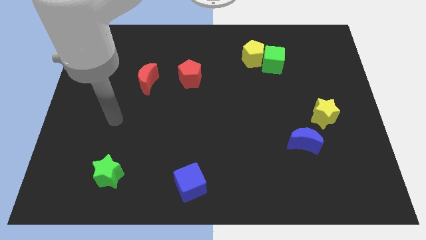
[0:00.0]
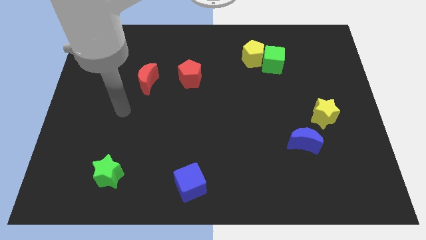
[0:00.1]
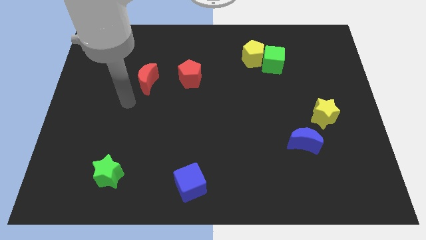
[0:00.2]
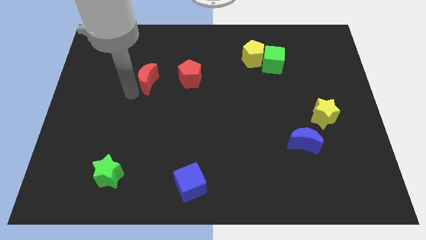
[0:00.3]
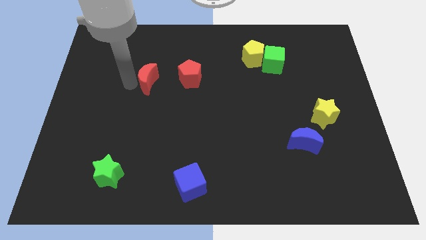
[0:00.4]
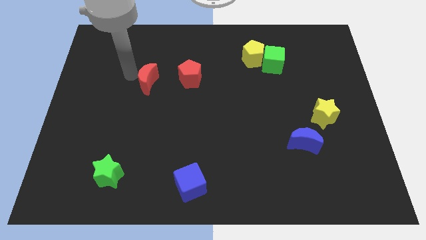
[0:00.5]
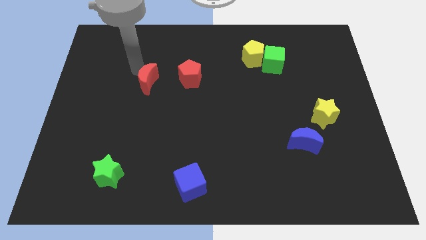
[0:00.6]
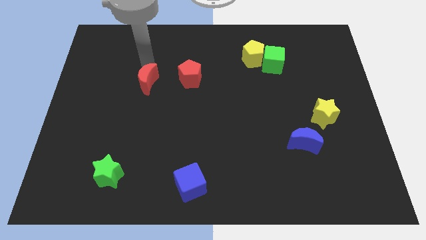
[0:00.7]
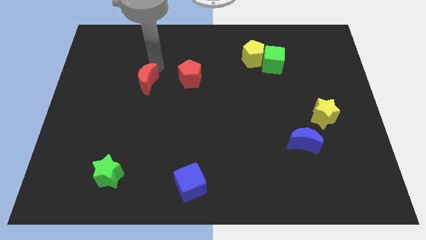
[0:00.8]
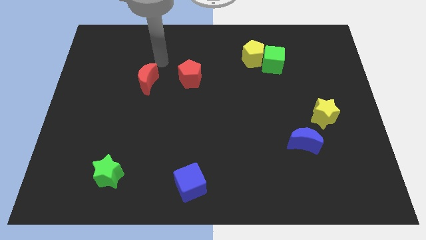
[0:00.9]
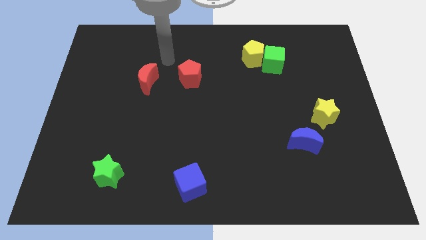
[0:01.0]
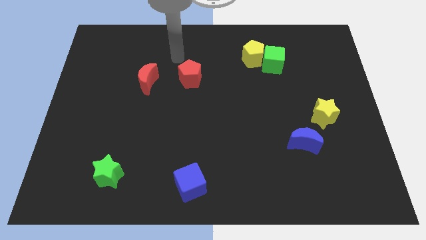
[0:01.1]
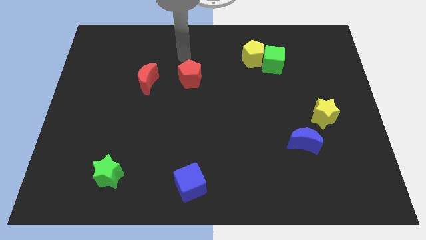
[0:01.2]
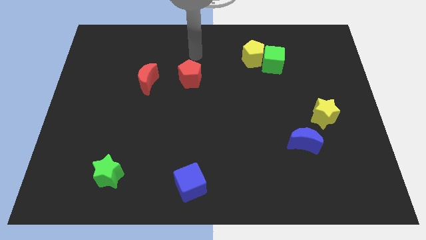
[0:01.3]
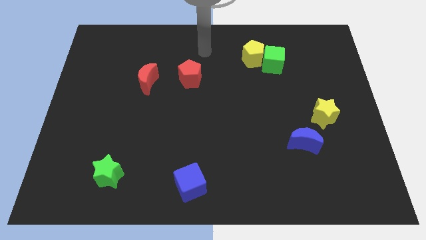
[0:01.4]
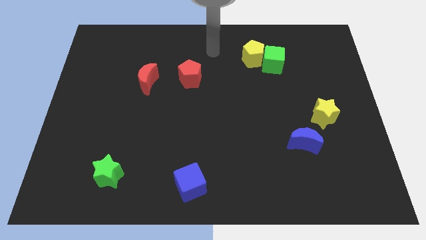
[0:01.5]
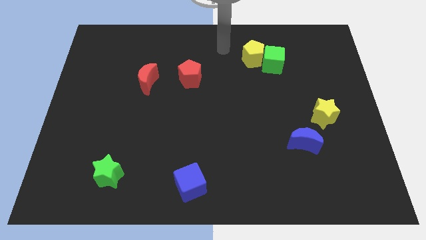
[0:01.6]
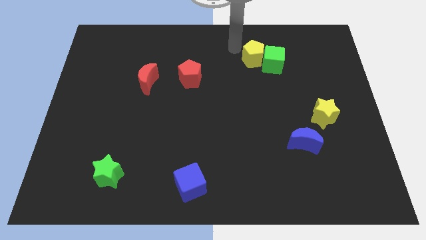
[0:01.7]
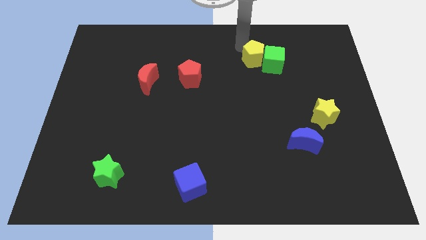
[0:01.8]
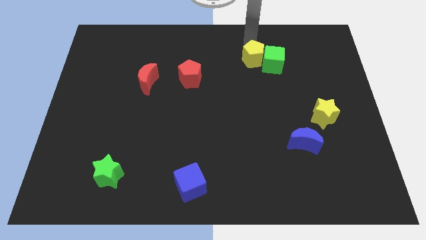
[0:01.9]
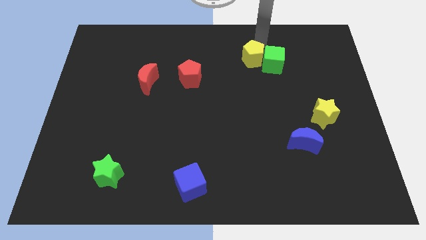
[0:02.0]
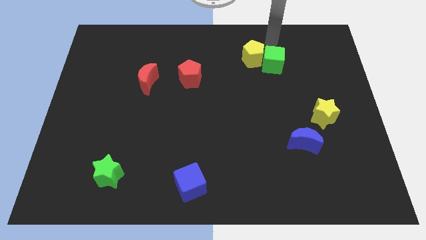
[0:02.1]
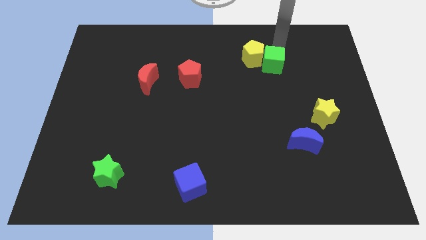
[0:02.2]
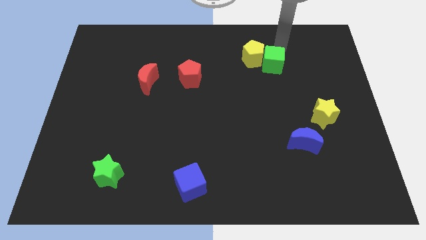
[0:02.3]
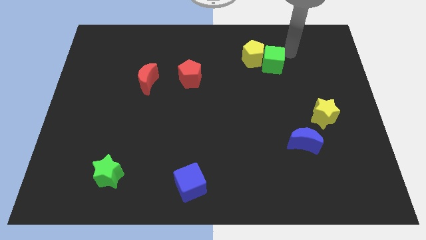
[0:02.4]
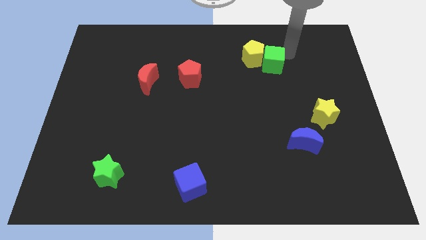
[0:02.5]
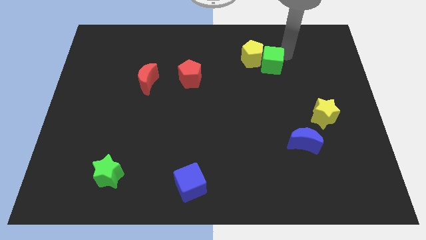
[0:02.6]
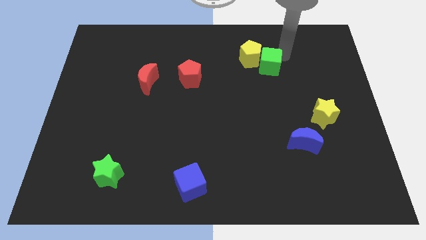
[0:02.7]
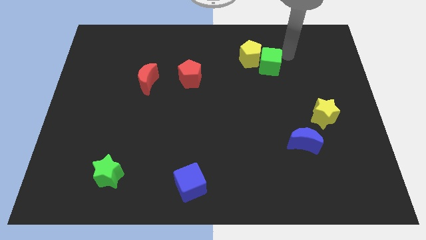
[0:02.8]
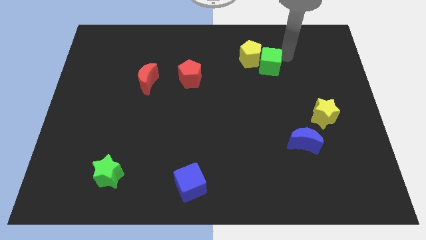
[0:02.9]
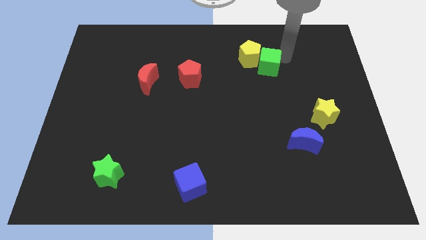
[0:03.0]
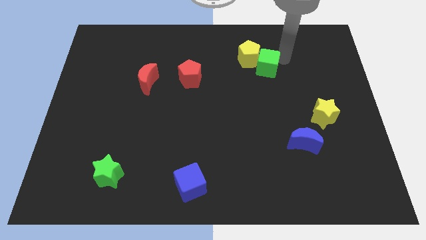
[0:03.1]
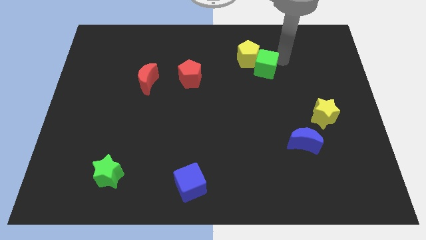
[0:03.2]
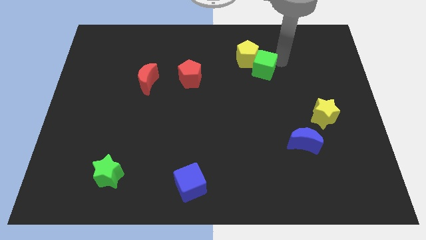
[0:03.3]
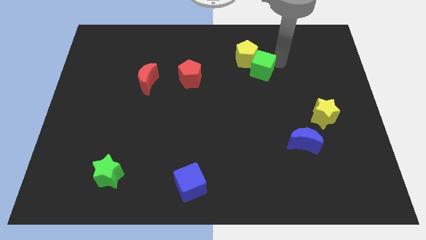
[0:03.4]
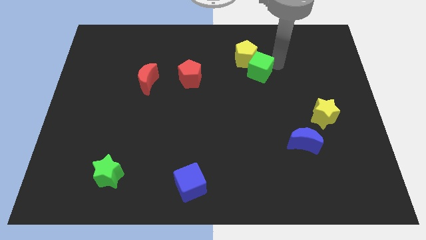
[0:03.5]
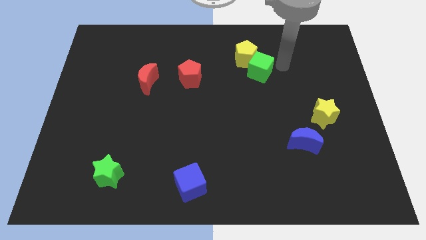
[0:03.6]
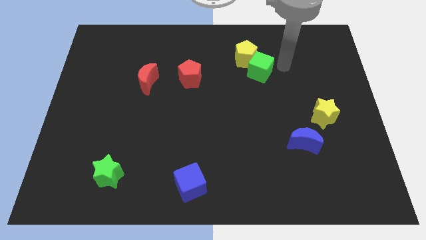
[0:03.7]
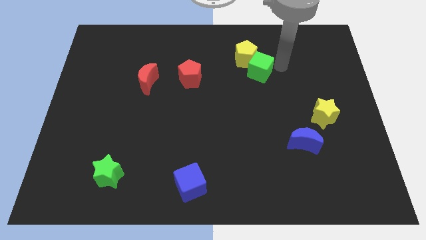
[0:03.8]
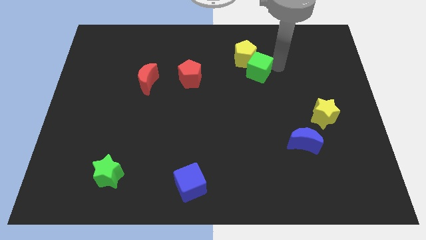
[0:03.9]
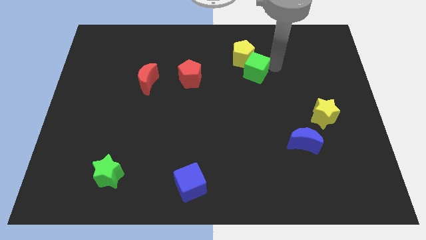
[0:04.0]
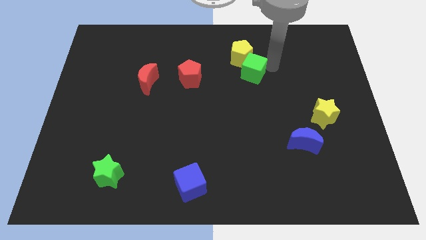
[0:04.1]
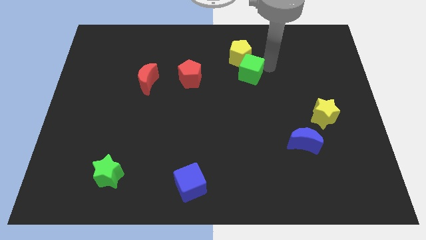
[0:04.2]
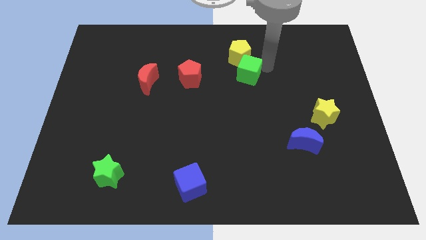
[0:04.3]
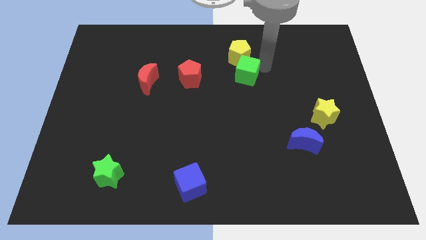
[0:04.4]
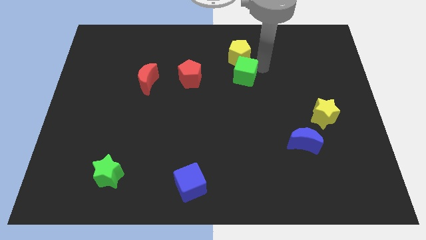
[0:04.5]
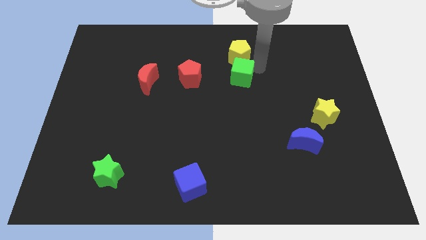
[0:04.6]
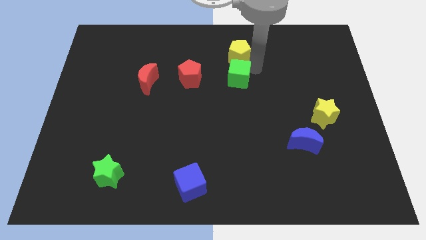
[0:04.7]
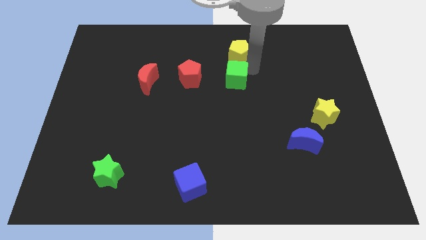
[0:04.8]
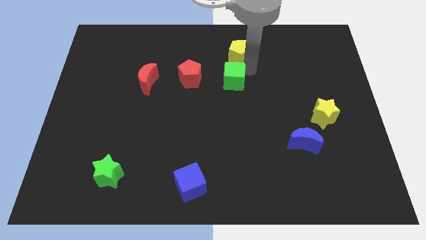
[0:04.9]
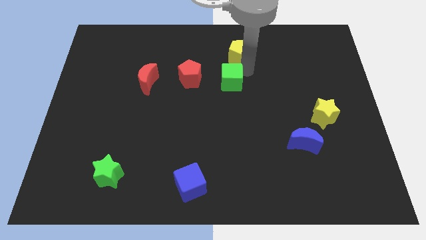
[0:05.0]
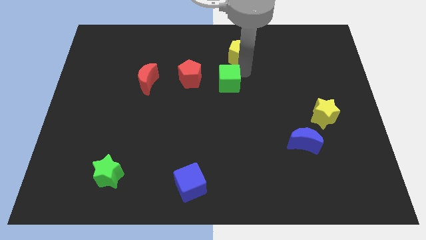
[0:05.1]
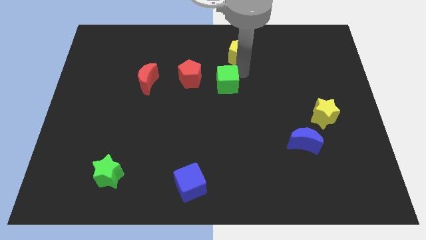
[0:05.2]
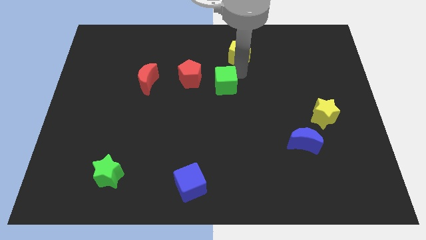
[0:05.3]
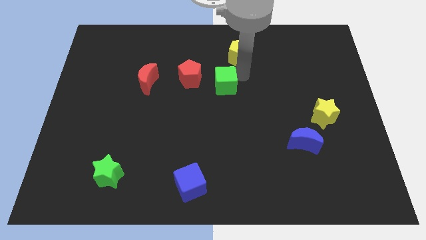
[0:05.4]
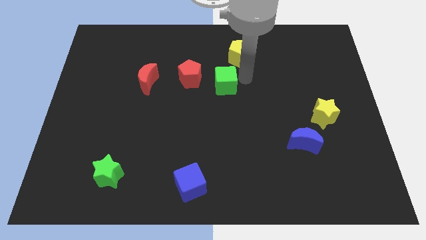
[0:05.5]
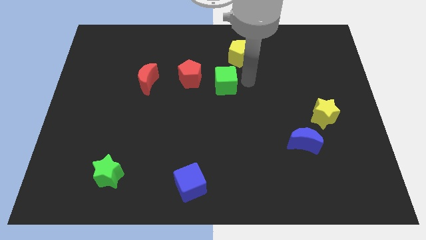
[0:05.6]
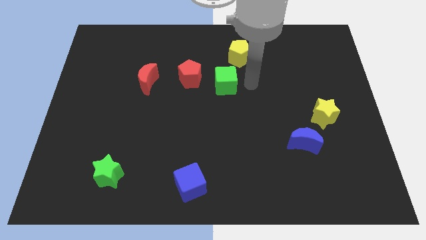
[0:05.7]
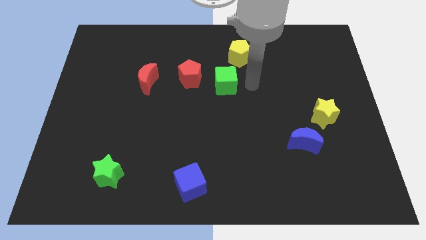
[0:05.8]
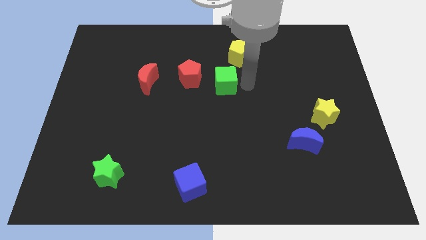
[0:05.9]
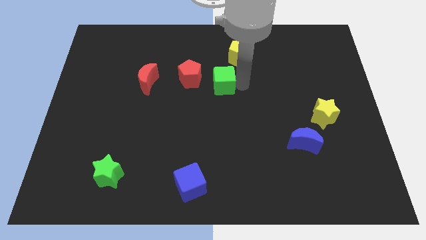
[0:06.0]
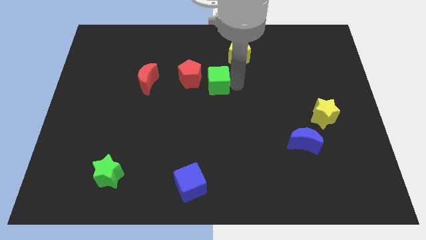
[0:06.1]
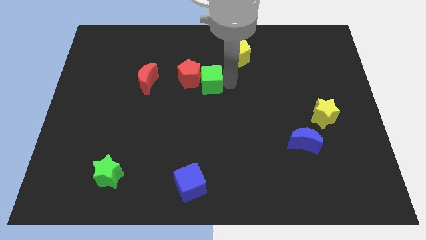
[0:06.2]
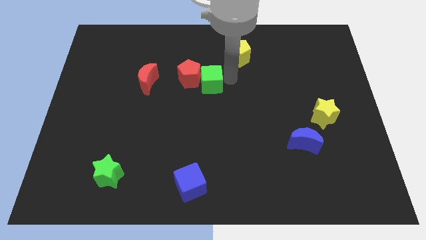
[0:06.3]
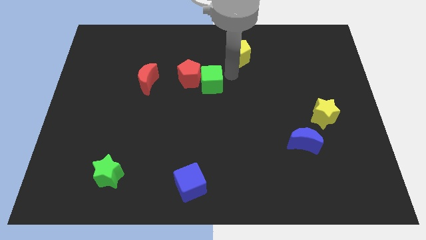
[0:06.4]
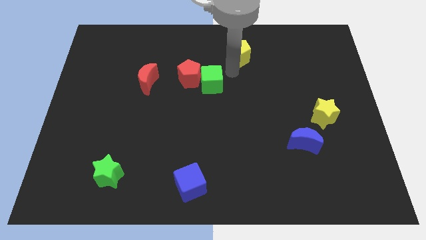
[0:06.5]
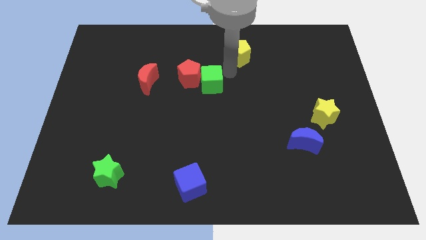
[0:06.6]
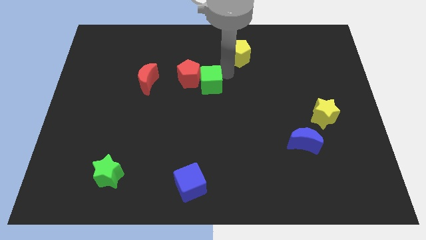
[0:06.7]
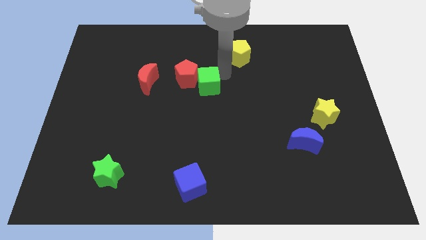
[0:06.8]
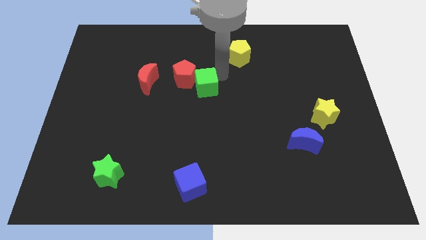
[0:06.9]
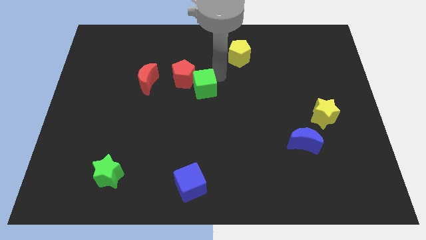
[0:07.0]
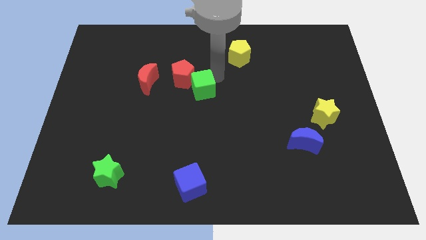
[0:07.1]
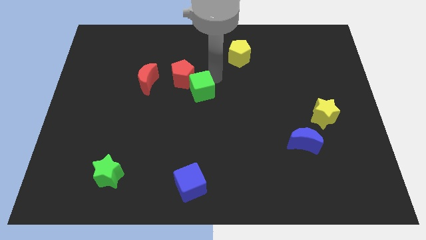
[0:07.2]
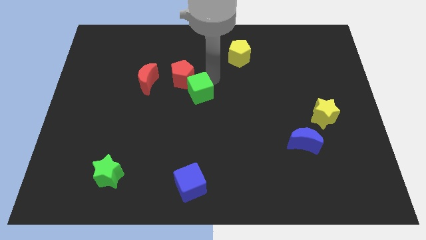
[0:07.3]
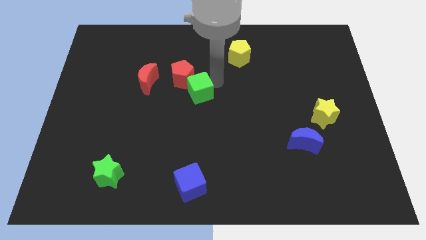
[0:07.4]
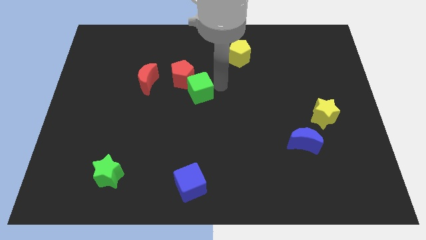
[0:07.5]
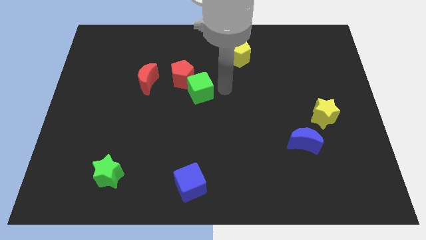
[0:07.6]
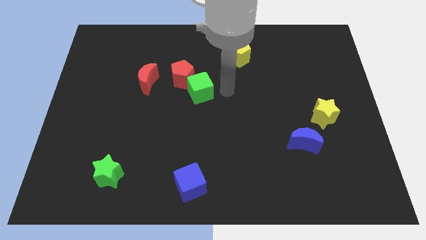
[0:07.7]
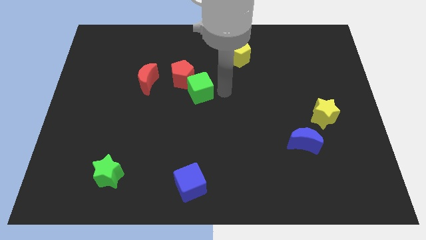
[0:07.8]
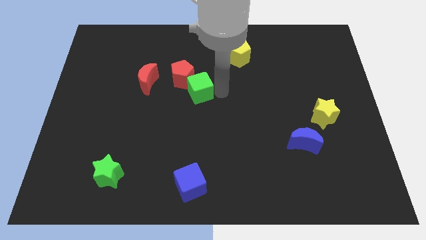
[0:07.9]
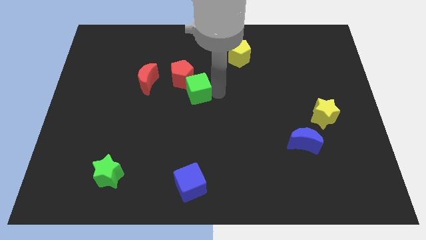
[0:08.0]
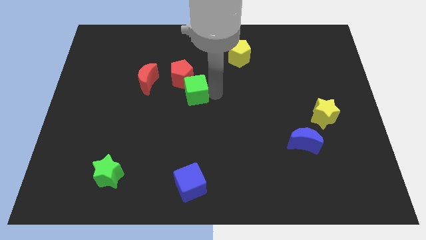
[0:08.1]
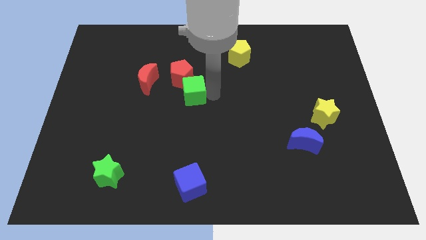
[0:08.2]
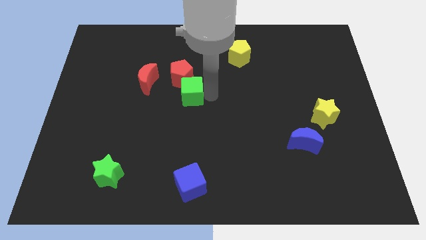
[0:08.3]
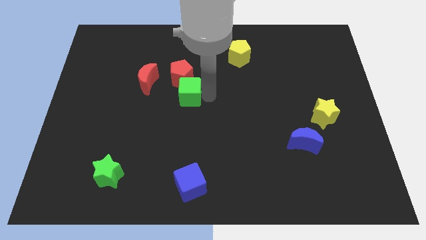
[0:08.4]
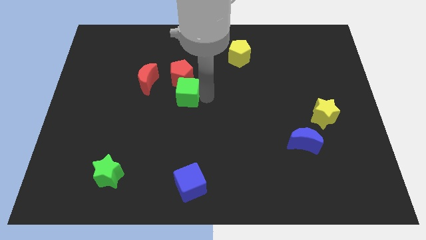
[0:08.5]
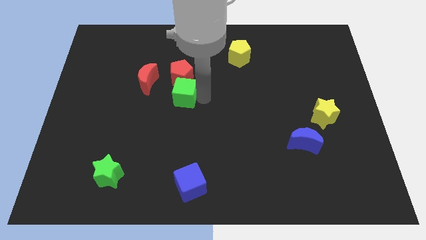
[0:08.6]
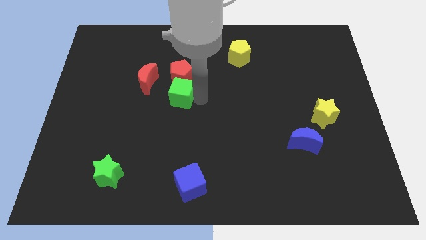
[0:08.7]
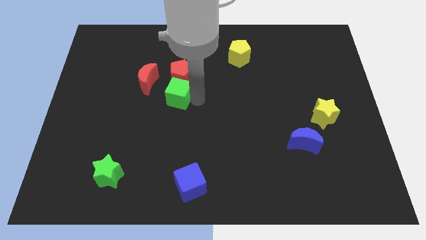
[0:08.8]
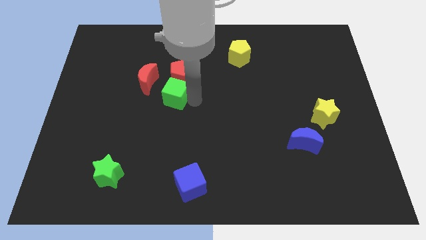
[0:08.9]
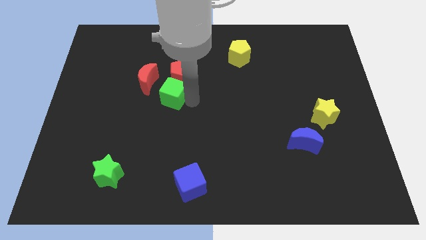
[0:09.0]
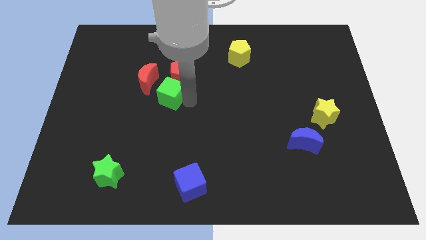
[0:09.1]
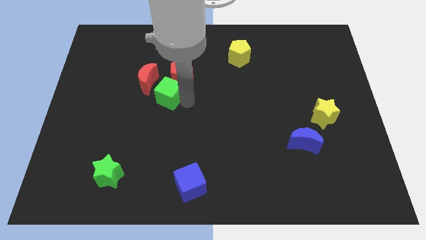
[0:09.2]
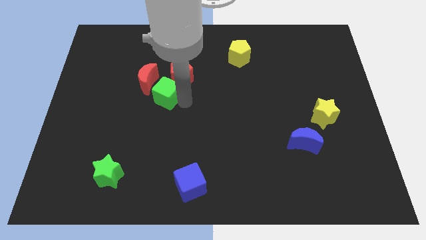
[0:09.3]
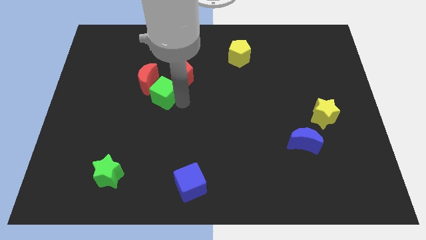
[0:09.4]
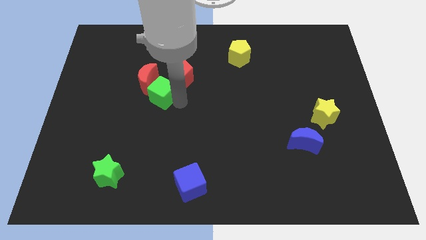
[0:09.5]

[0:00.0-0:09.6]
put the green cube next to the red moon
